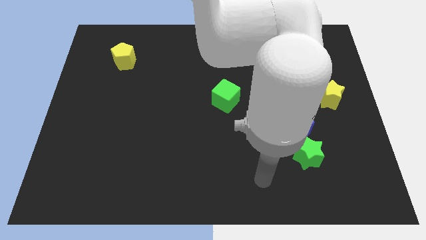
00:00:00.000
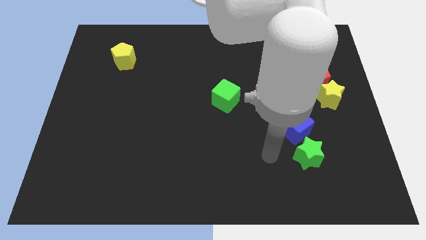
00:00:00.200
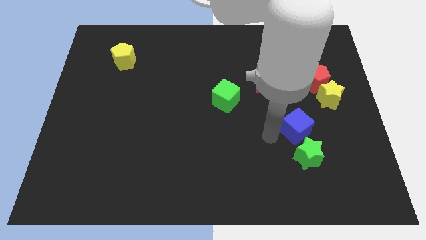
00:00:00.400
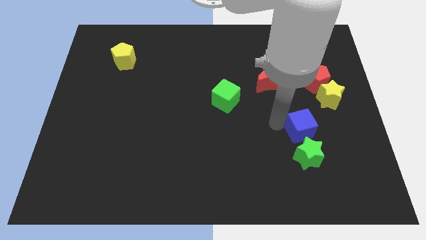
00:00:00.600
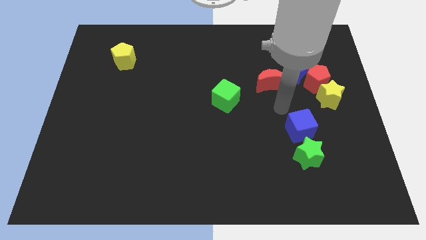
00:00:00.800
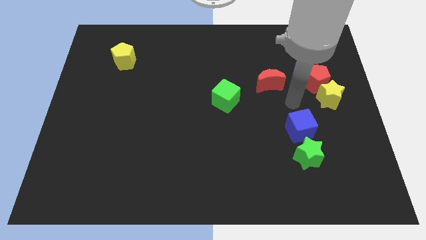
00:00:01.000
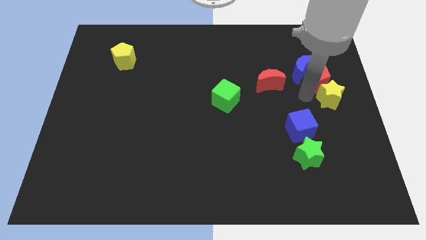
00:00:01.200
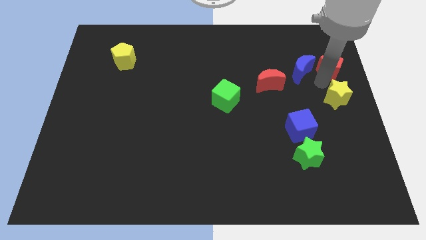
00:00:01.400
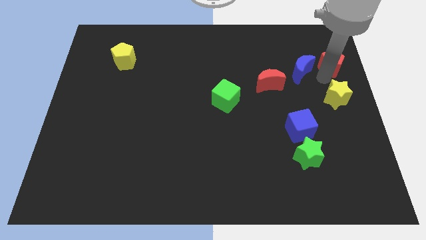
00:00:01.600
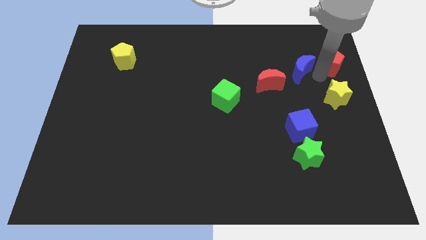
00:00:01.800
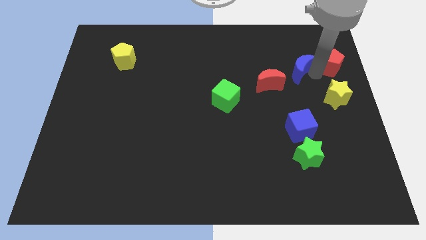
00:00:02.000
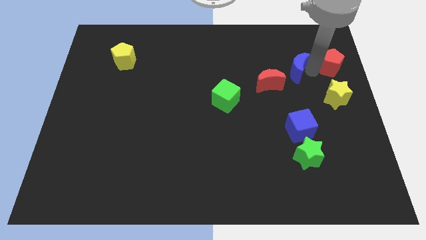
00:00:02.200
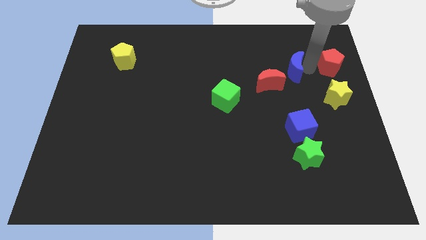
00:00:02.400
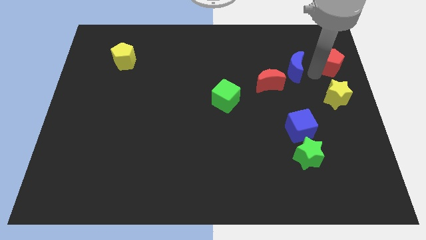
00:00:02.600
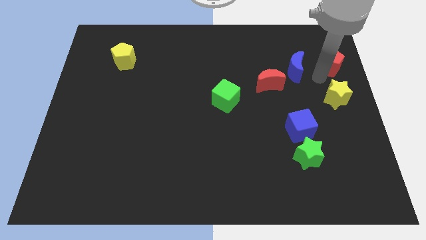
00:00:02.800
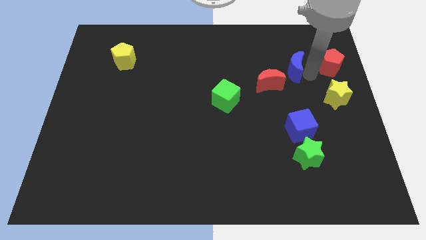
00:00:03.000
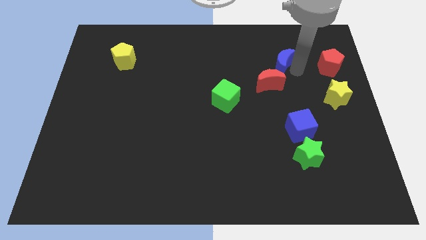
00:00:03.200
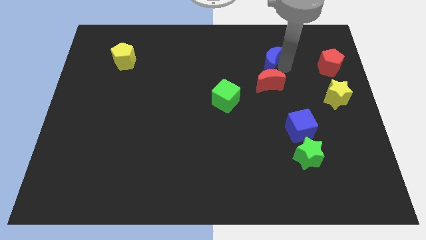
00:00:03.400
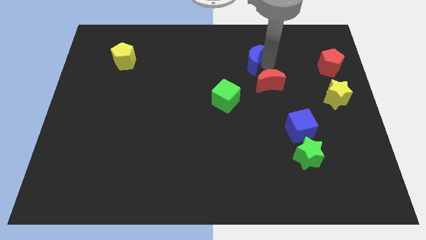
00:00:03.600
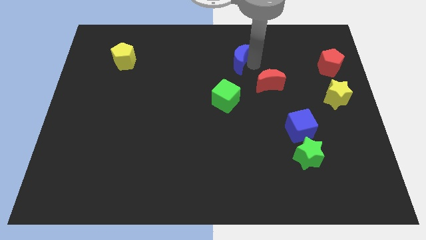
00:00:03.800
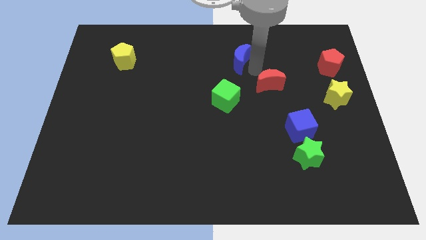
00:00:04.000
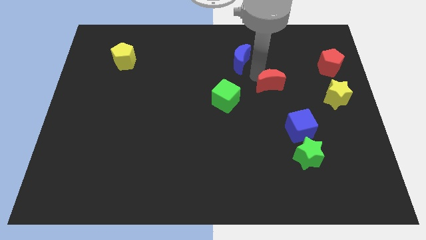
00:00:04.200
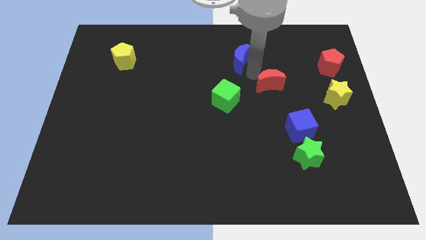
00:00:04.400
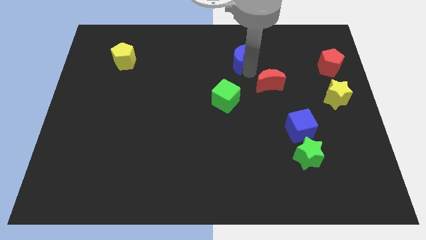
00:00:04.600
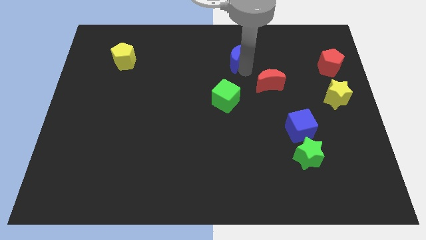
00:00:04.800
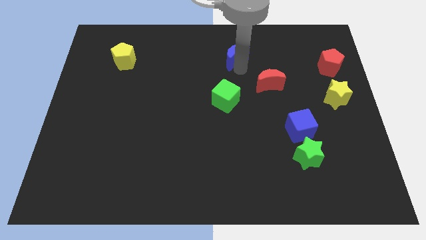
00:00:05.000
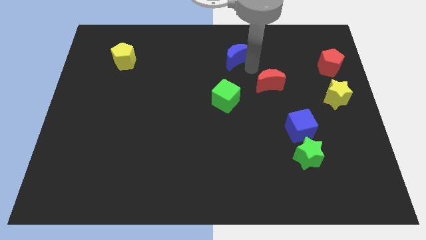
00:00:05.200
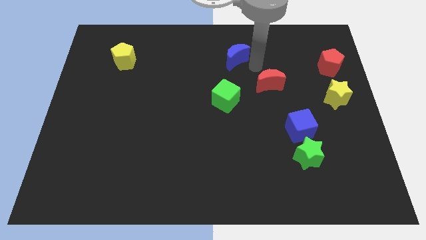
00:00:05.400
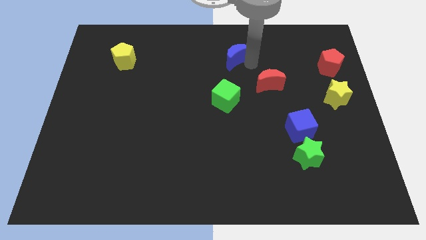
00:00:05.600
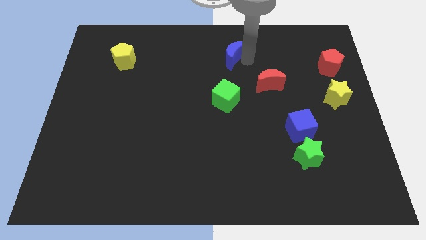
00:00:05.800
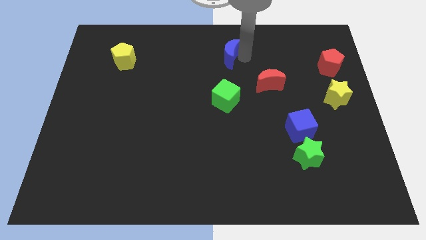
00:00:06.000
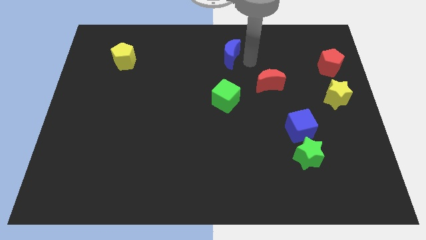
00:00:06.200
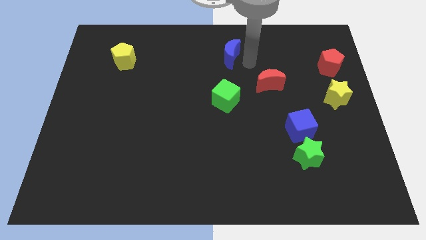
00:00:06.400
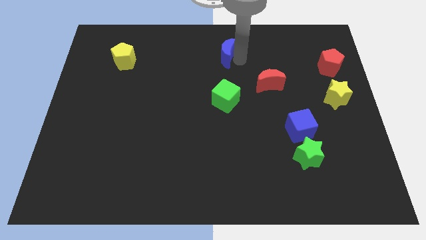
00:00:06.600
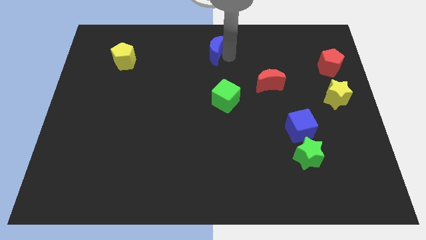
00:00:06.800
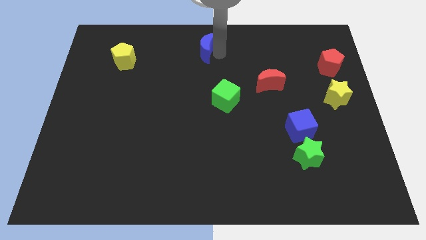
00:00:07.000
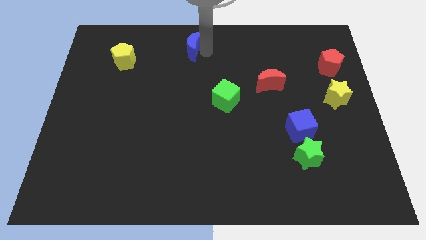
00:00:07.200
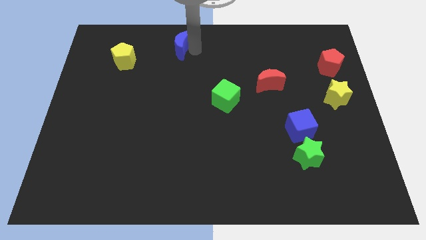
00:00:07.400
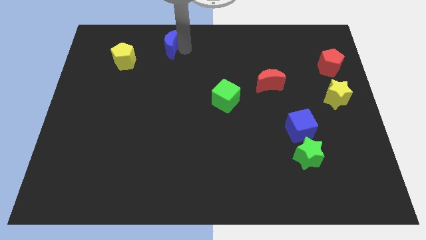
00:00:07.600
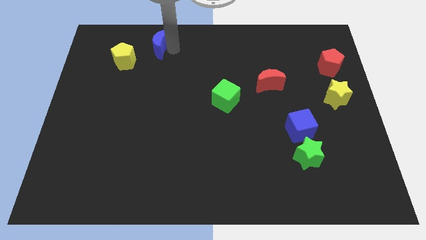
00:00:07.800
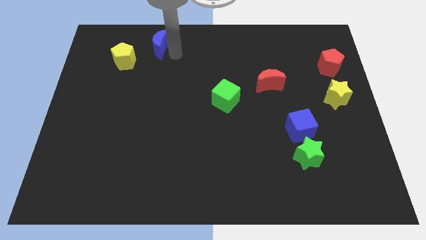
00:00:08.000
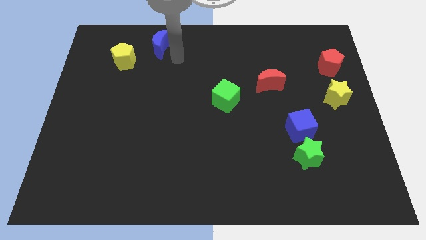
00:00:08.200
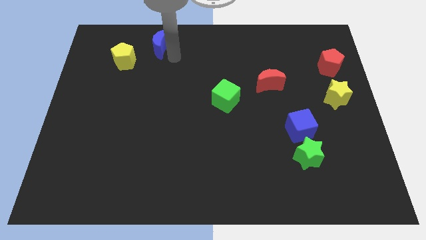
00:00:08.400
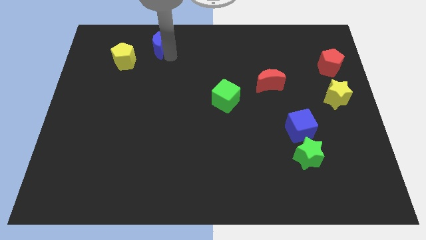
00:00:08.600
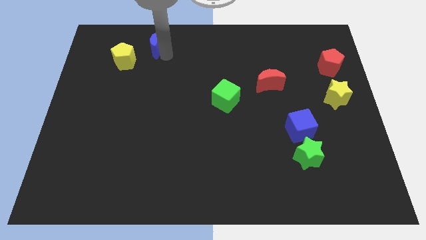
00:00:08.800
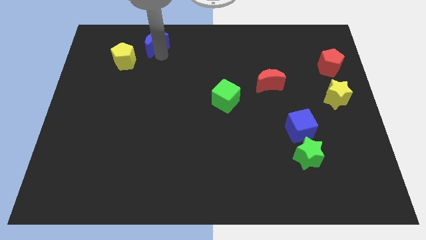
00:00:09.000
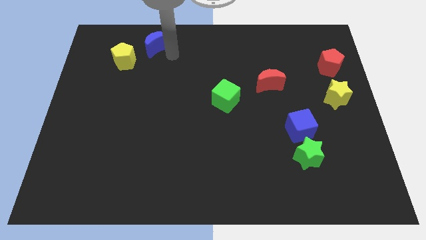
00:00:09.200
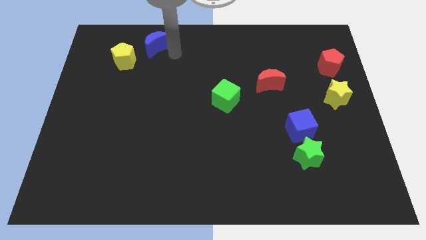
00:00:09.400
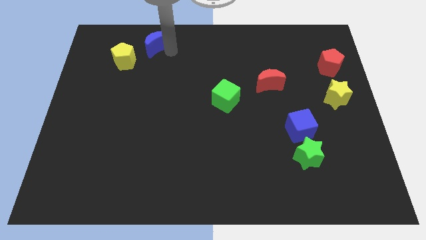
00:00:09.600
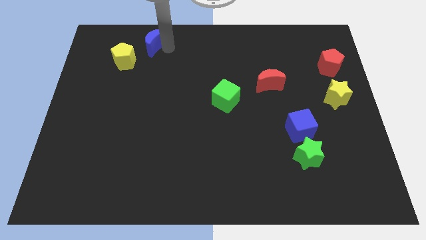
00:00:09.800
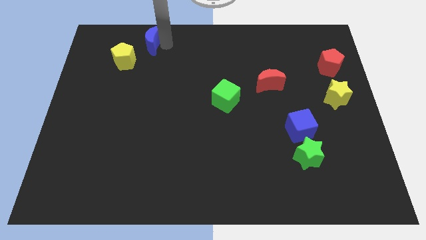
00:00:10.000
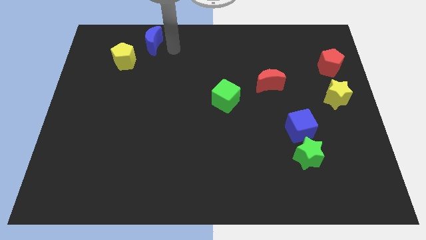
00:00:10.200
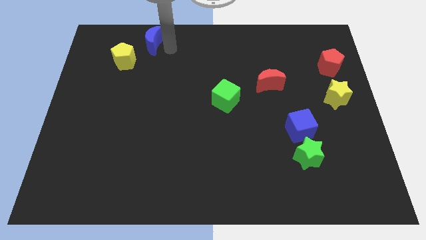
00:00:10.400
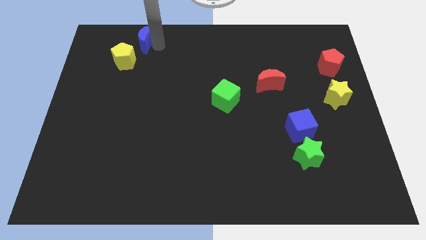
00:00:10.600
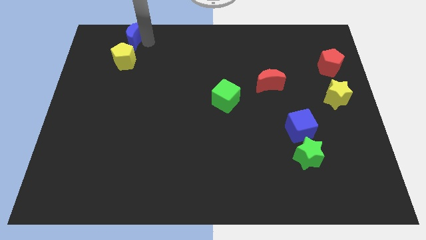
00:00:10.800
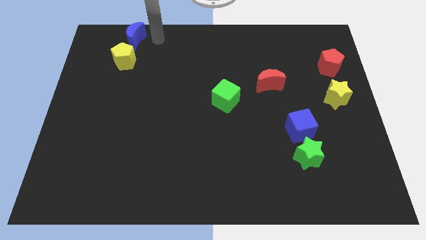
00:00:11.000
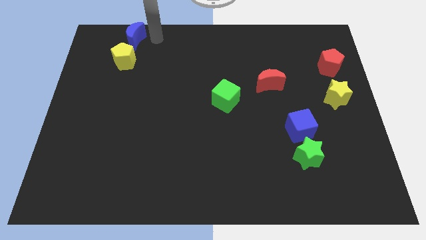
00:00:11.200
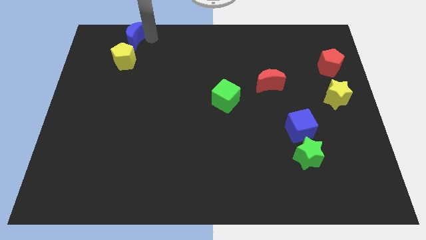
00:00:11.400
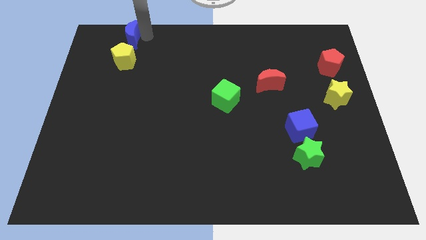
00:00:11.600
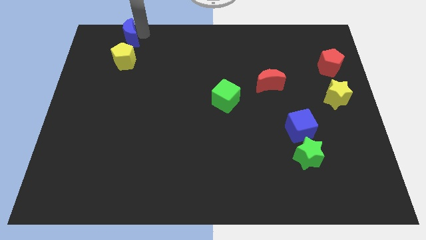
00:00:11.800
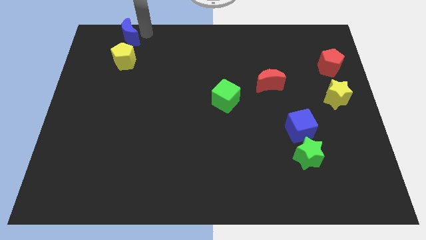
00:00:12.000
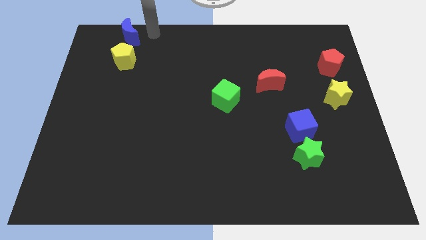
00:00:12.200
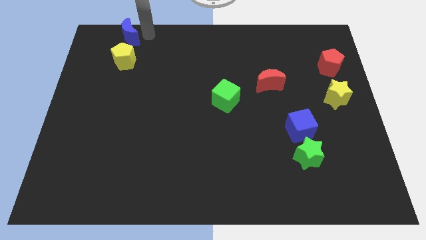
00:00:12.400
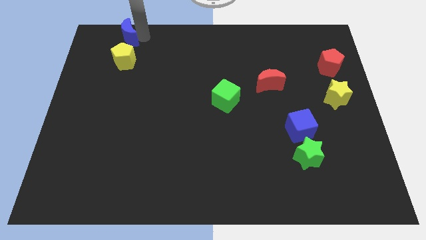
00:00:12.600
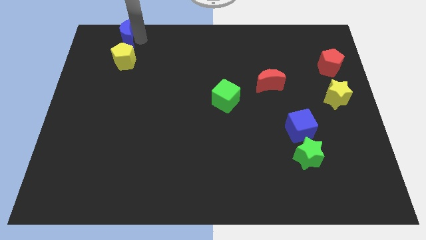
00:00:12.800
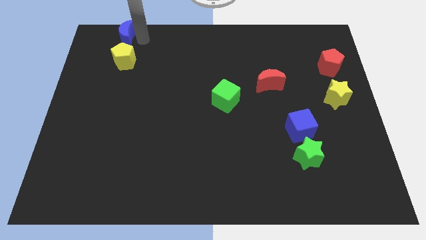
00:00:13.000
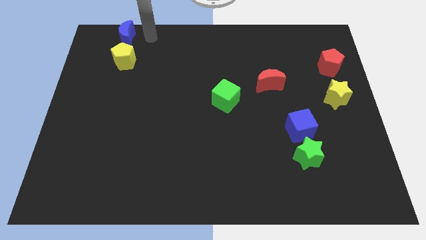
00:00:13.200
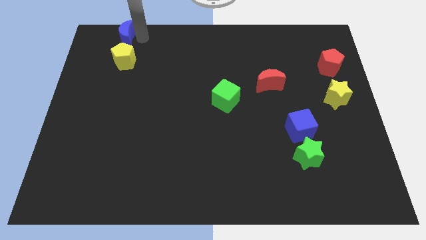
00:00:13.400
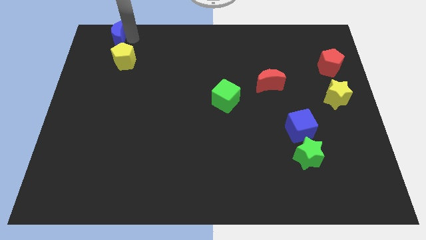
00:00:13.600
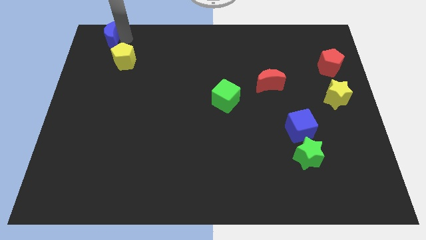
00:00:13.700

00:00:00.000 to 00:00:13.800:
slide the blue moon to the top left of the board
